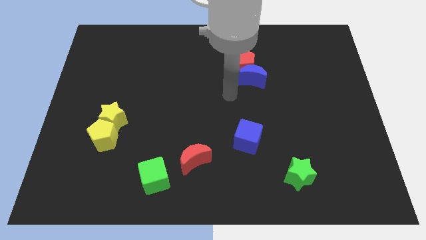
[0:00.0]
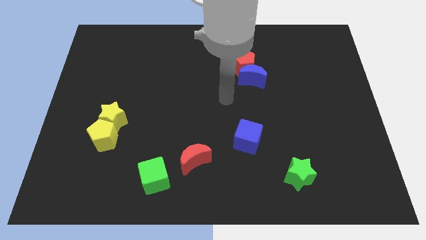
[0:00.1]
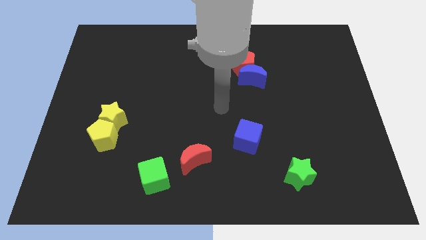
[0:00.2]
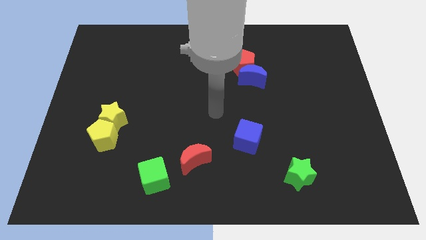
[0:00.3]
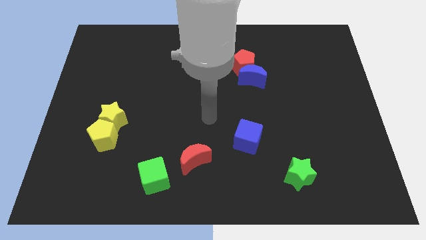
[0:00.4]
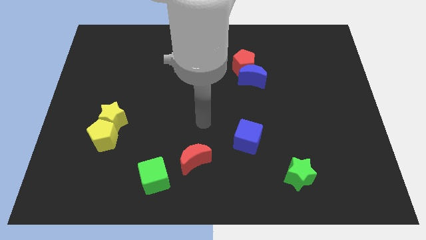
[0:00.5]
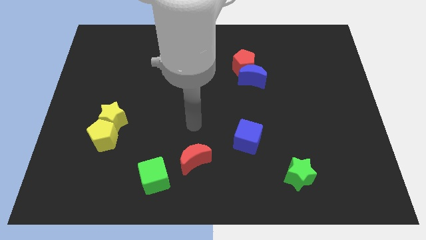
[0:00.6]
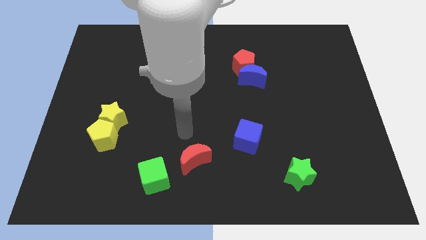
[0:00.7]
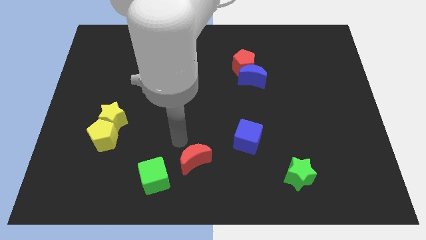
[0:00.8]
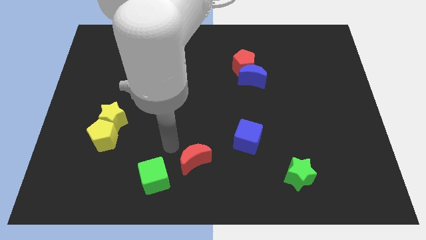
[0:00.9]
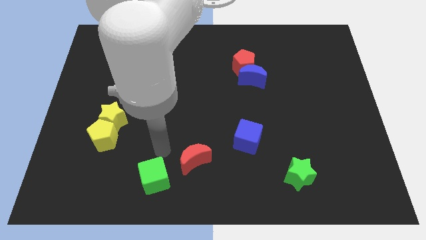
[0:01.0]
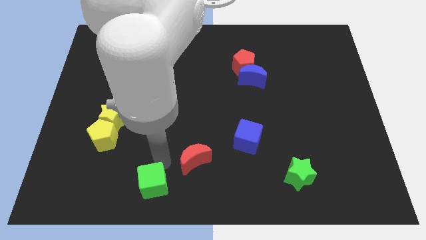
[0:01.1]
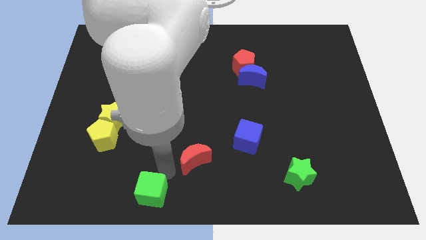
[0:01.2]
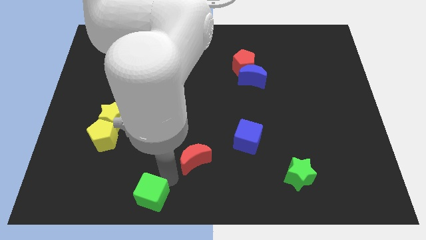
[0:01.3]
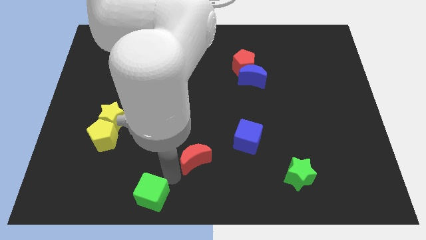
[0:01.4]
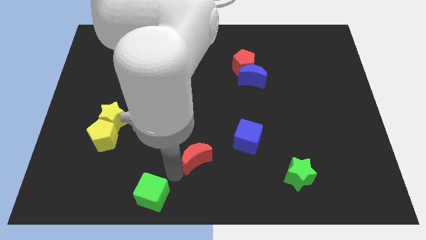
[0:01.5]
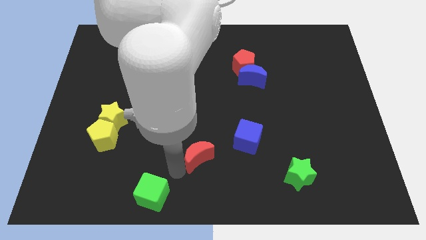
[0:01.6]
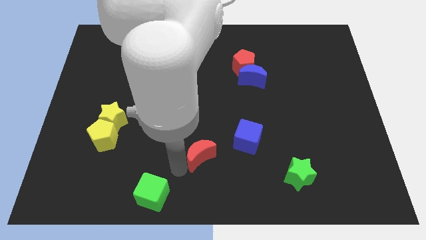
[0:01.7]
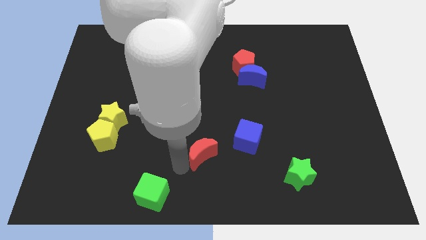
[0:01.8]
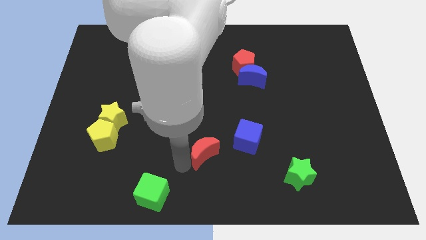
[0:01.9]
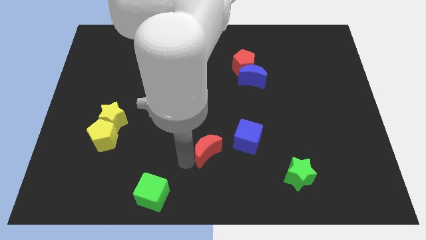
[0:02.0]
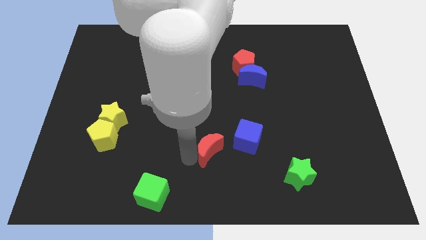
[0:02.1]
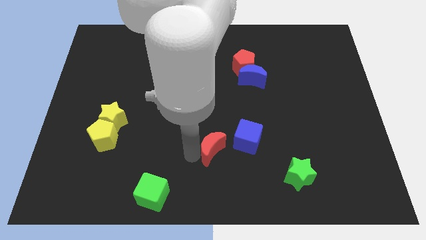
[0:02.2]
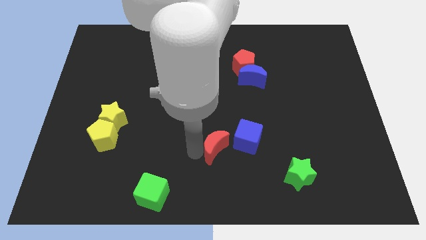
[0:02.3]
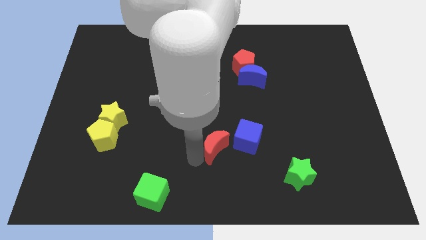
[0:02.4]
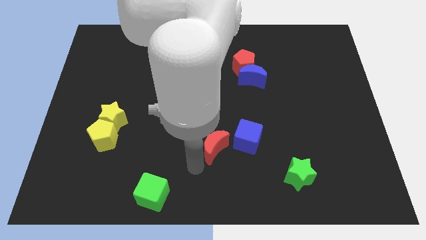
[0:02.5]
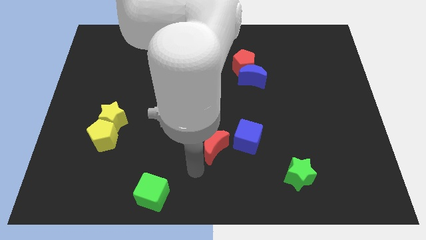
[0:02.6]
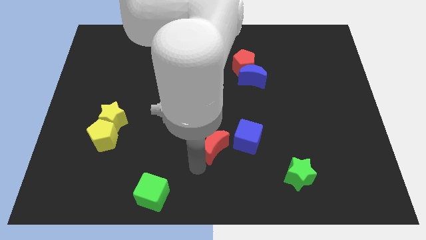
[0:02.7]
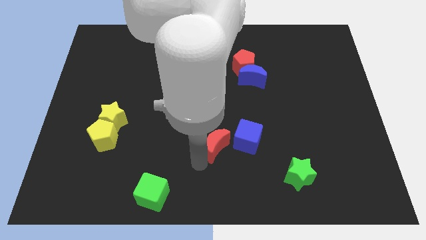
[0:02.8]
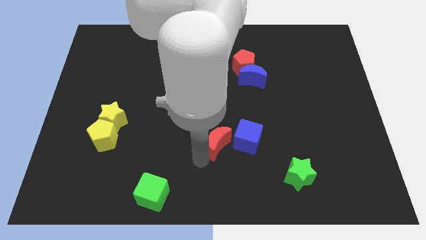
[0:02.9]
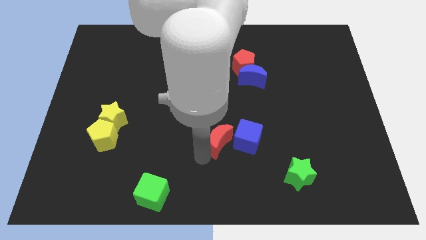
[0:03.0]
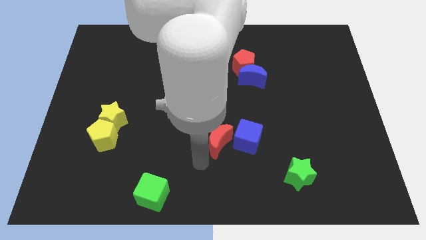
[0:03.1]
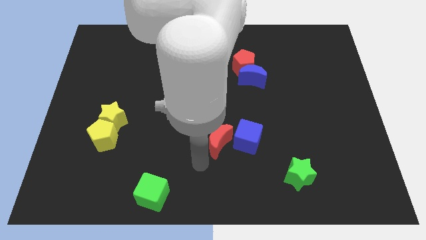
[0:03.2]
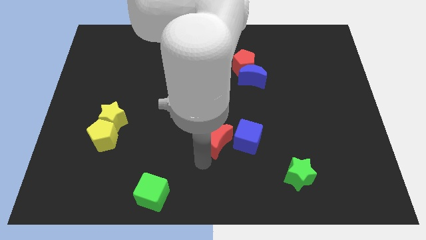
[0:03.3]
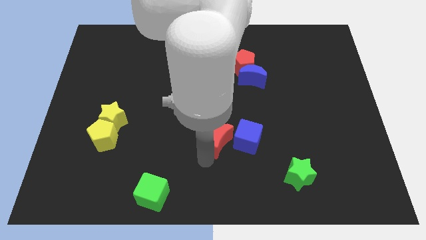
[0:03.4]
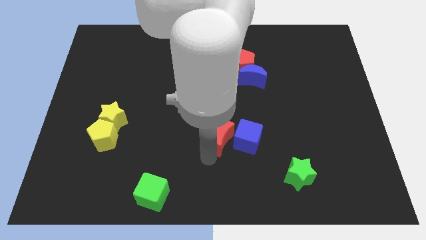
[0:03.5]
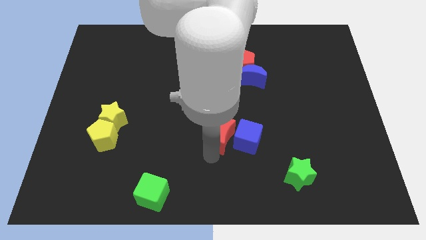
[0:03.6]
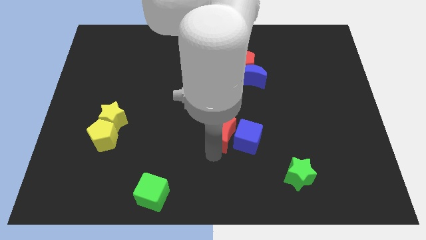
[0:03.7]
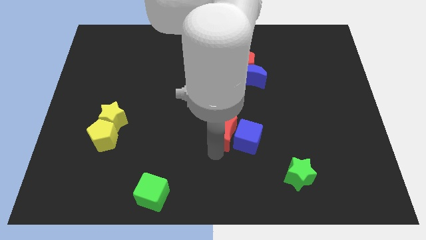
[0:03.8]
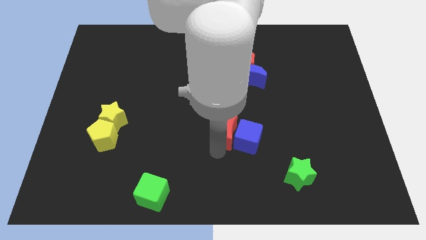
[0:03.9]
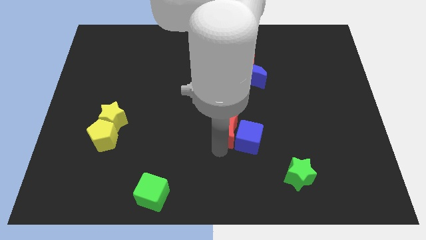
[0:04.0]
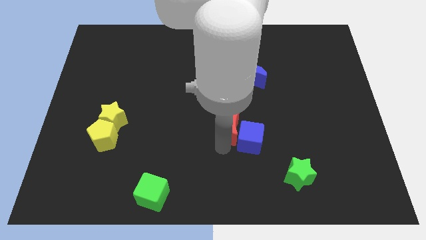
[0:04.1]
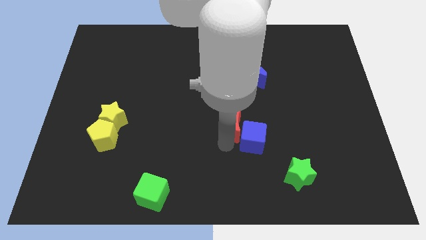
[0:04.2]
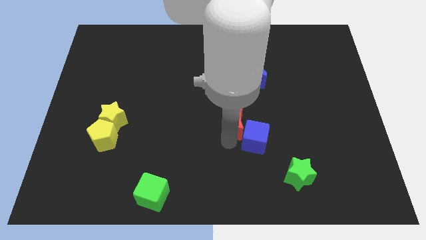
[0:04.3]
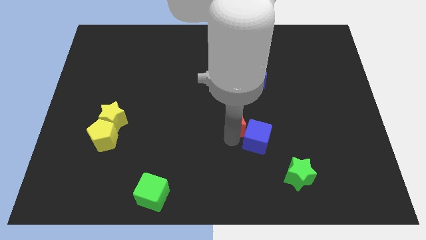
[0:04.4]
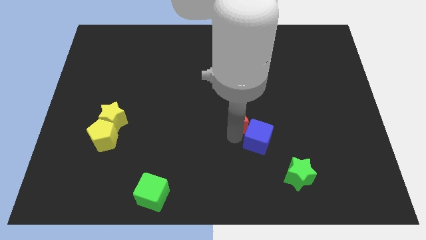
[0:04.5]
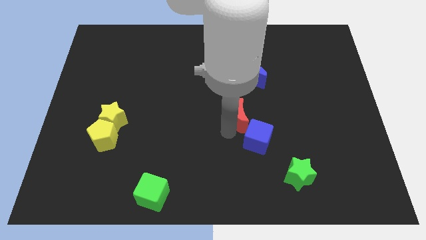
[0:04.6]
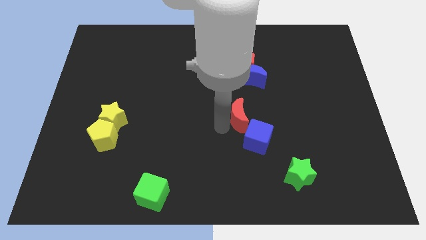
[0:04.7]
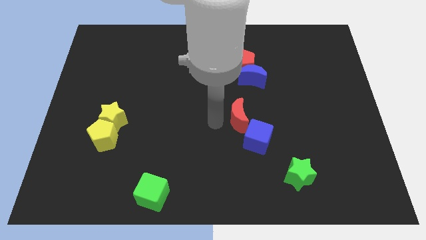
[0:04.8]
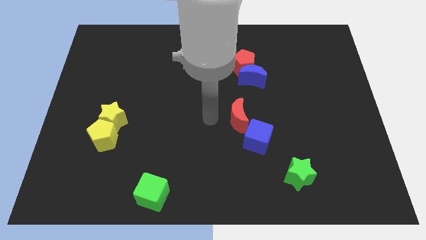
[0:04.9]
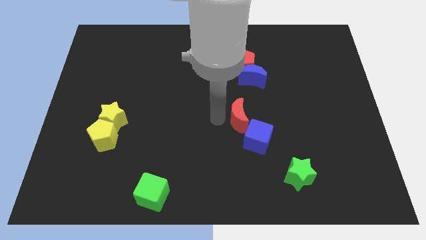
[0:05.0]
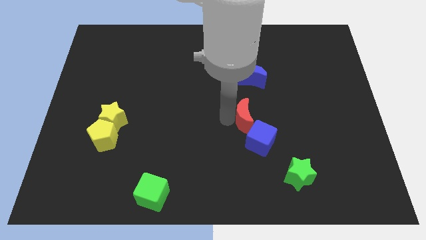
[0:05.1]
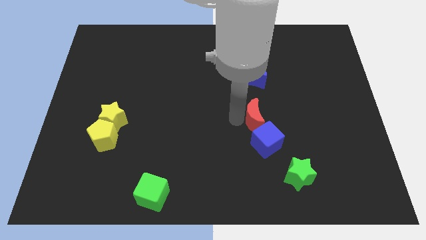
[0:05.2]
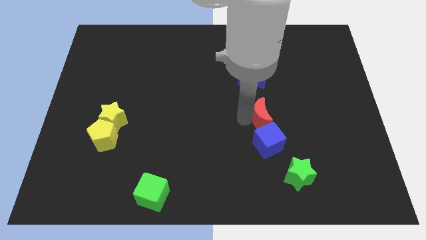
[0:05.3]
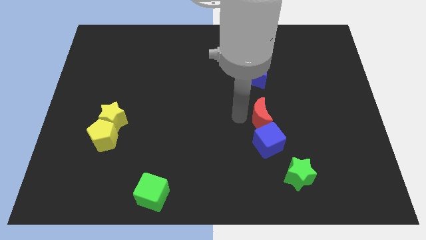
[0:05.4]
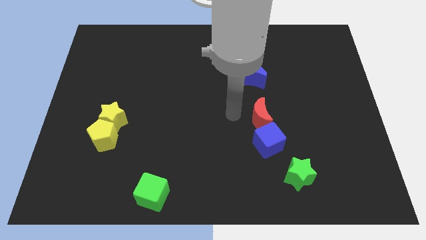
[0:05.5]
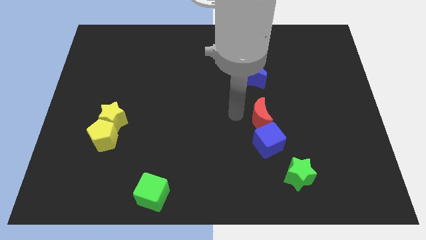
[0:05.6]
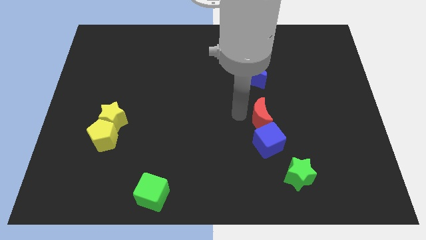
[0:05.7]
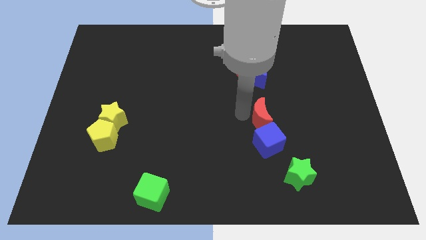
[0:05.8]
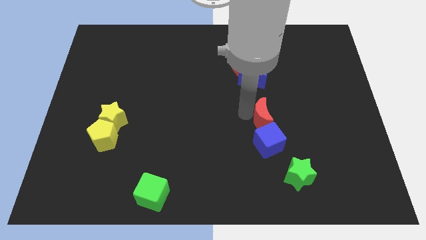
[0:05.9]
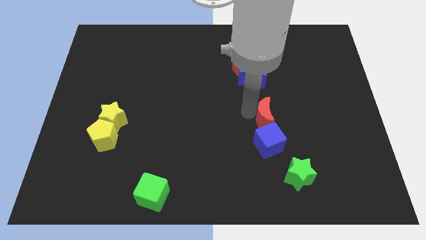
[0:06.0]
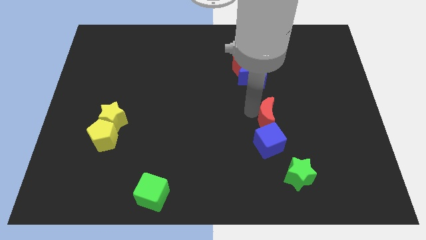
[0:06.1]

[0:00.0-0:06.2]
move the red moon to the top right side of the blue cube

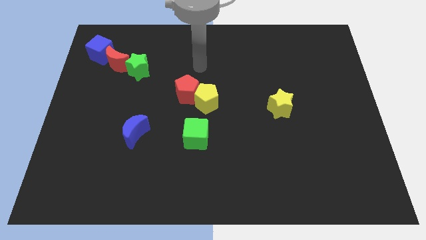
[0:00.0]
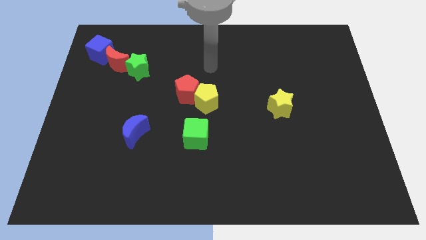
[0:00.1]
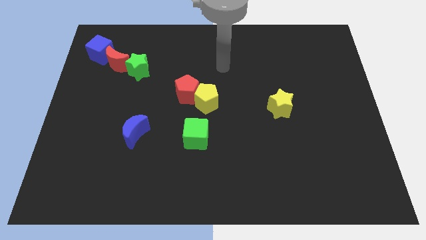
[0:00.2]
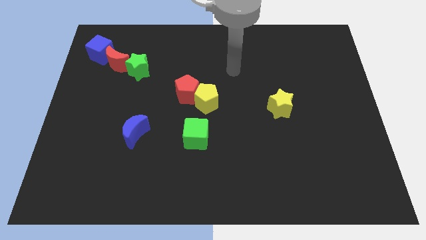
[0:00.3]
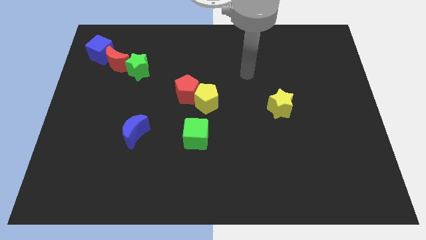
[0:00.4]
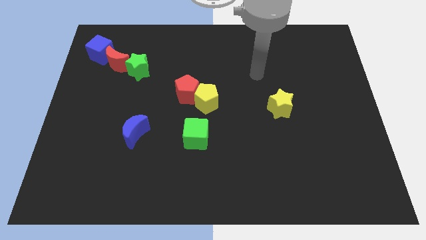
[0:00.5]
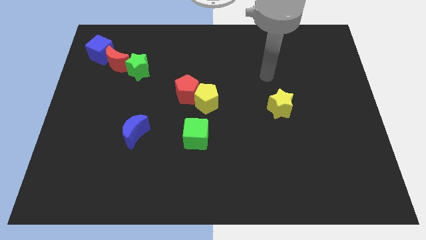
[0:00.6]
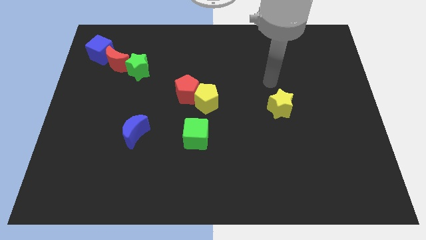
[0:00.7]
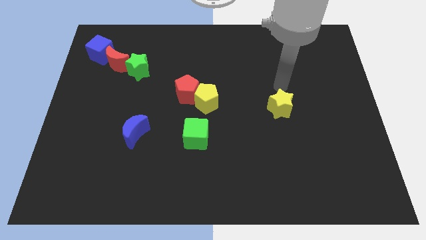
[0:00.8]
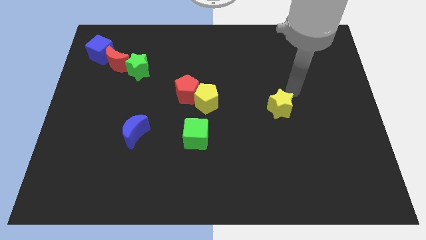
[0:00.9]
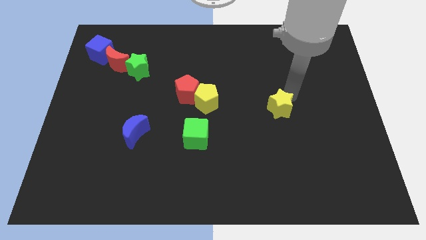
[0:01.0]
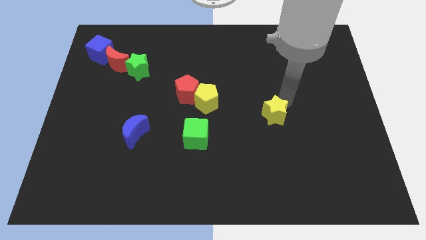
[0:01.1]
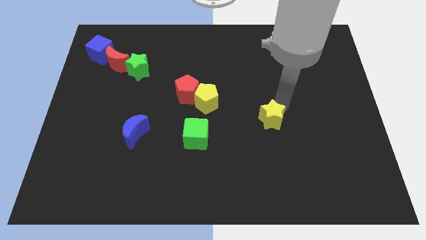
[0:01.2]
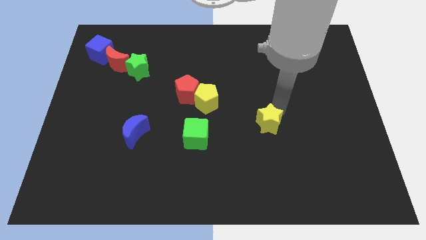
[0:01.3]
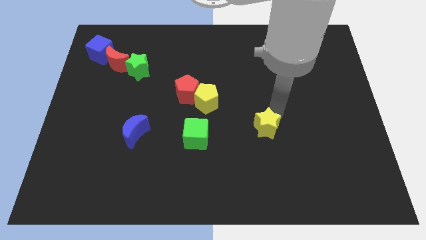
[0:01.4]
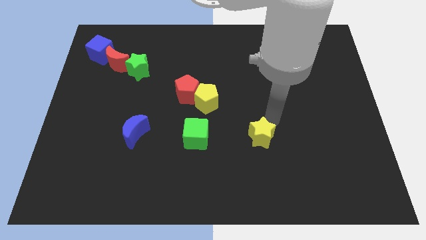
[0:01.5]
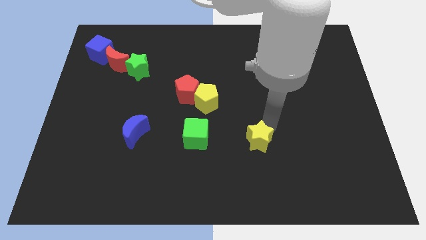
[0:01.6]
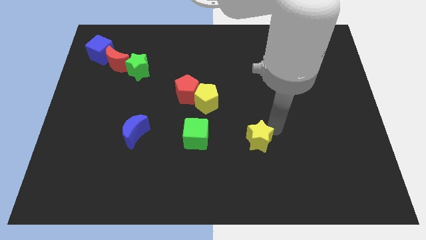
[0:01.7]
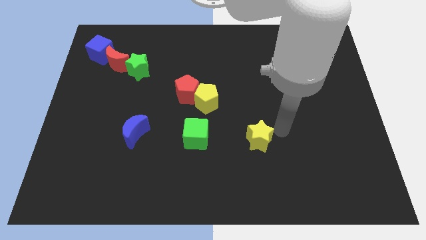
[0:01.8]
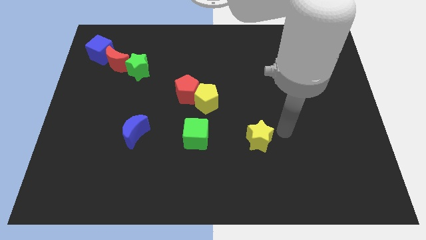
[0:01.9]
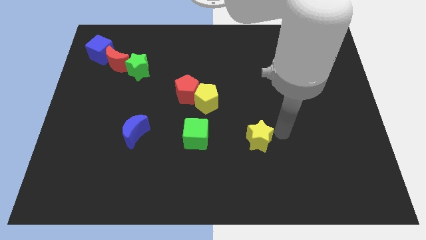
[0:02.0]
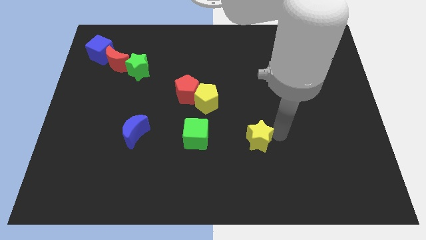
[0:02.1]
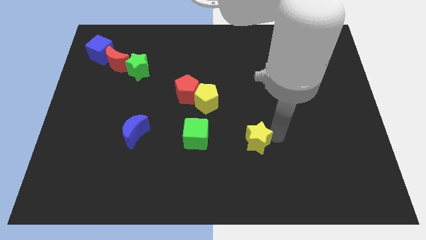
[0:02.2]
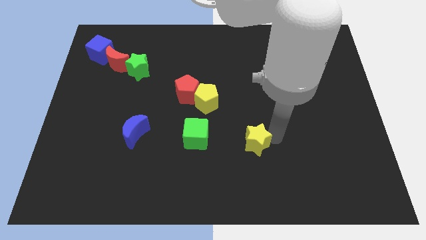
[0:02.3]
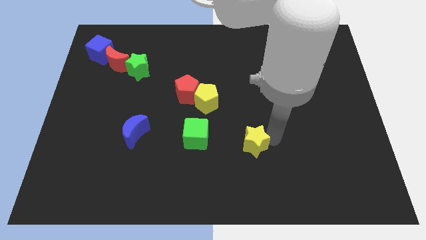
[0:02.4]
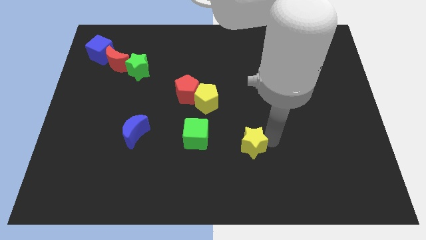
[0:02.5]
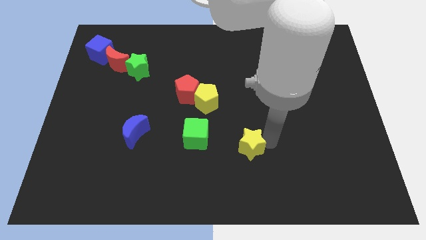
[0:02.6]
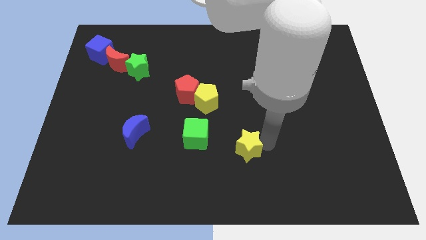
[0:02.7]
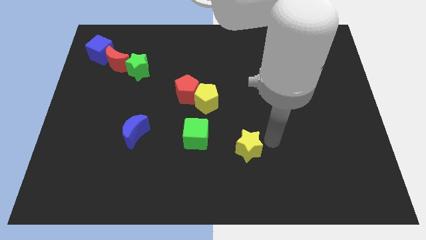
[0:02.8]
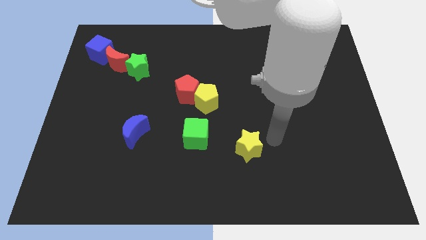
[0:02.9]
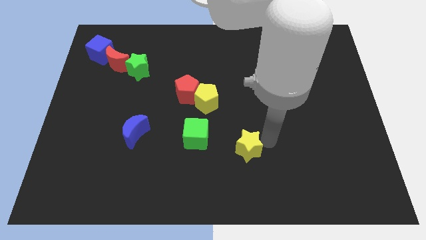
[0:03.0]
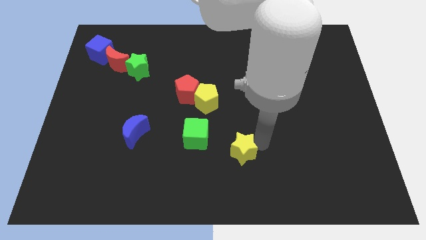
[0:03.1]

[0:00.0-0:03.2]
move the yellow star to the bottom right side of the green cube
